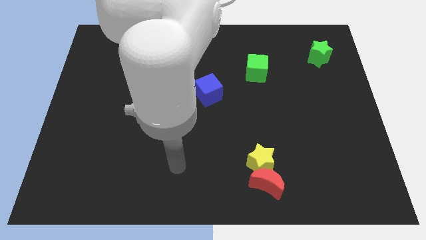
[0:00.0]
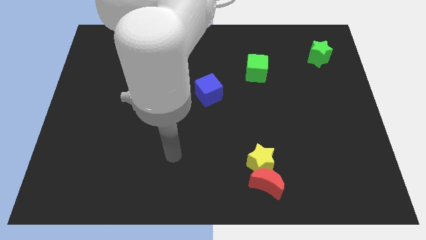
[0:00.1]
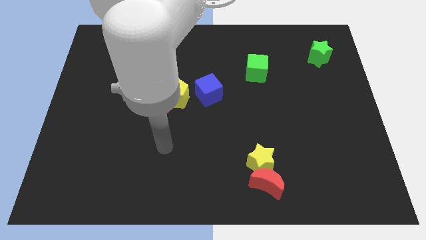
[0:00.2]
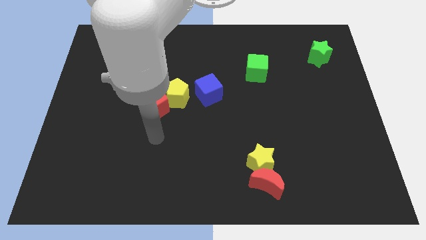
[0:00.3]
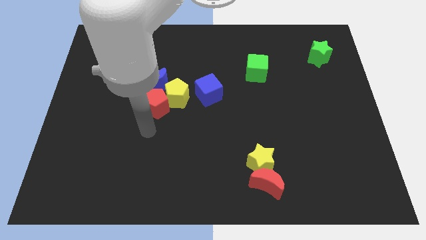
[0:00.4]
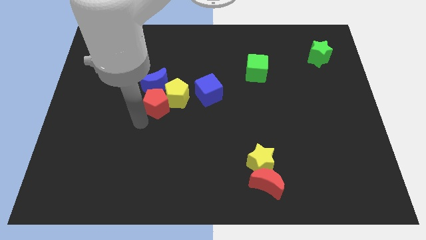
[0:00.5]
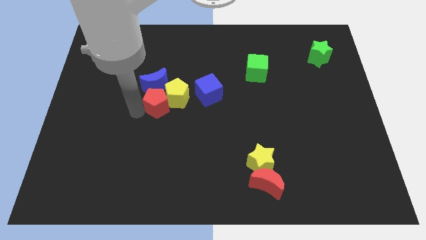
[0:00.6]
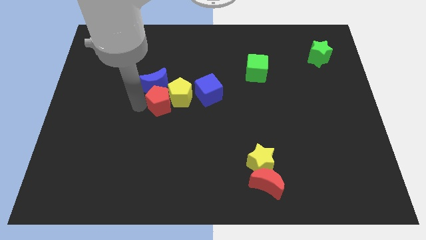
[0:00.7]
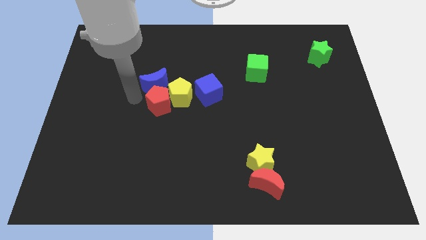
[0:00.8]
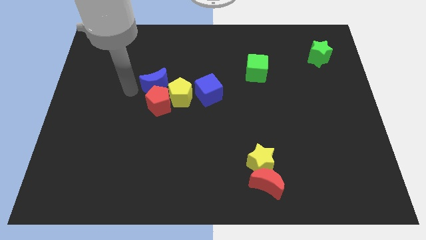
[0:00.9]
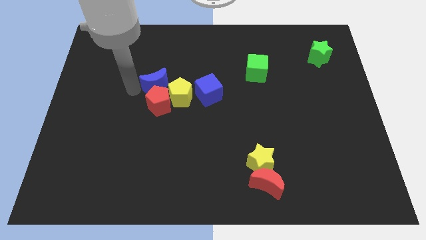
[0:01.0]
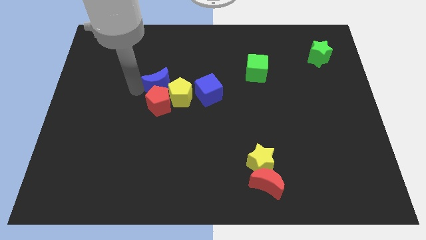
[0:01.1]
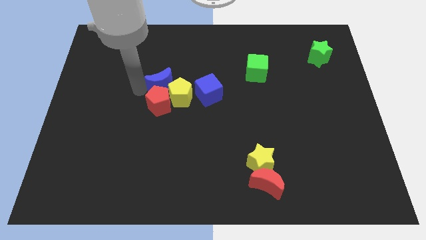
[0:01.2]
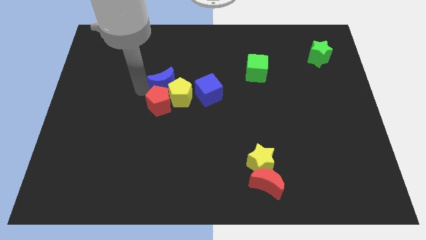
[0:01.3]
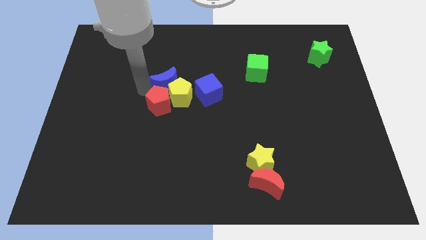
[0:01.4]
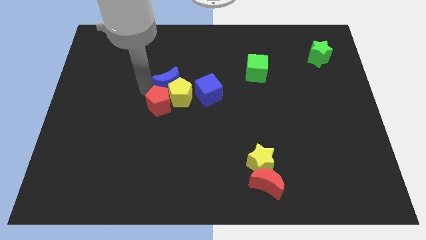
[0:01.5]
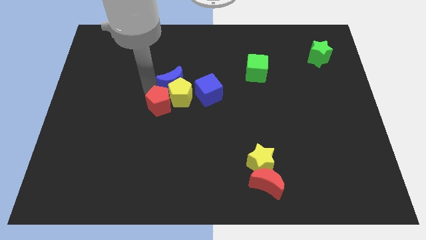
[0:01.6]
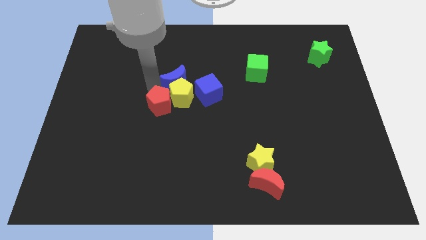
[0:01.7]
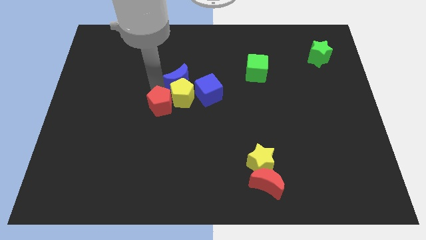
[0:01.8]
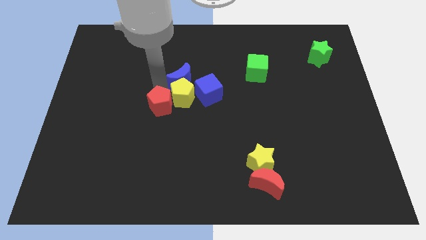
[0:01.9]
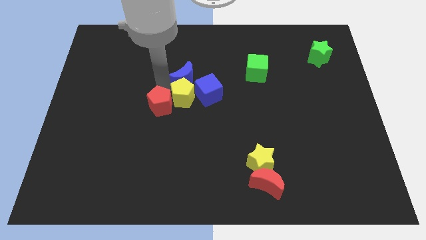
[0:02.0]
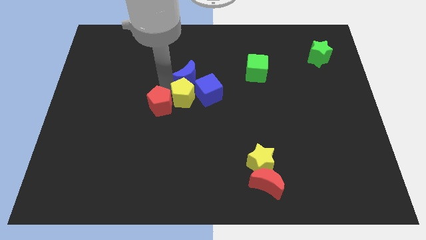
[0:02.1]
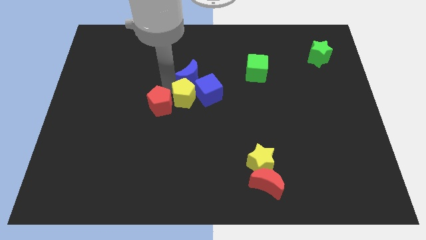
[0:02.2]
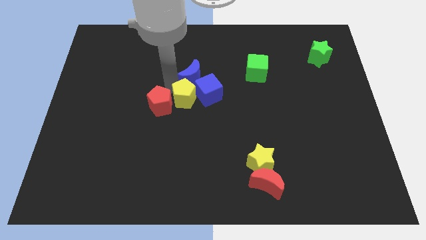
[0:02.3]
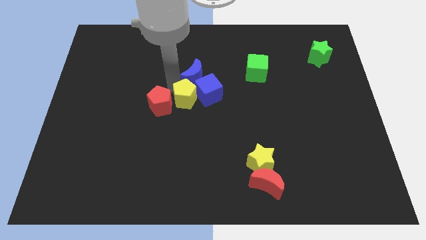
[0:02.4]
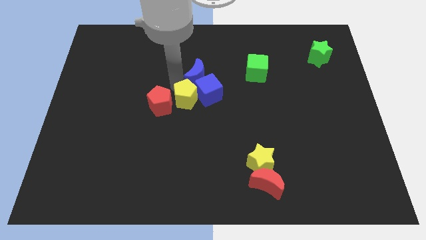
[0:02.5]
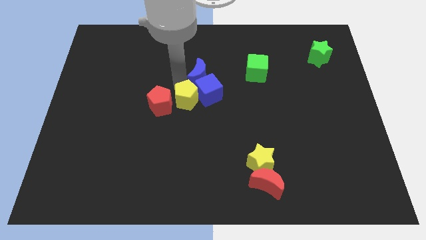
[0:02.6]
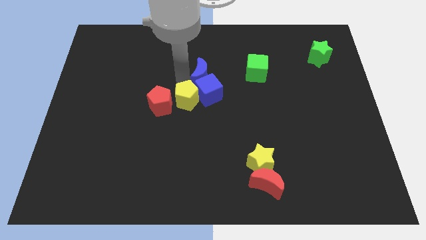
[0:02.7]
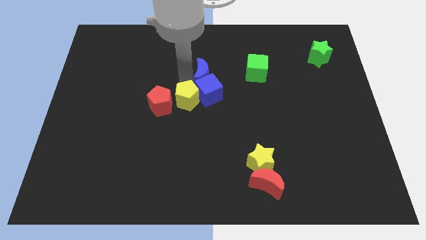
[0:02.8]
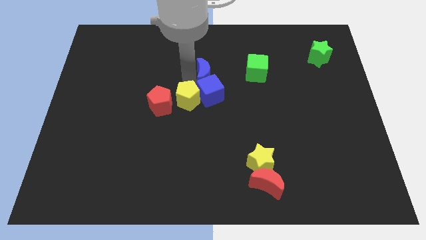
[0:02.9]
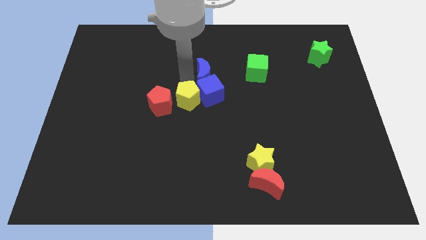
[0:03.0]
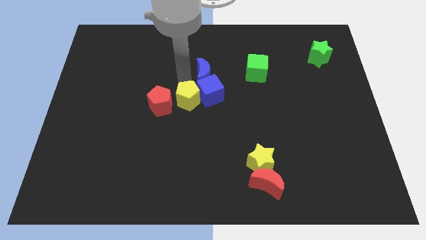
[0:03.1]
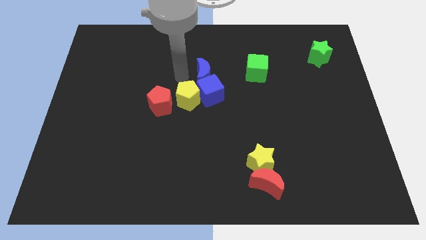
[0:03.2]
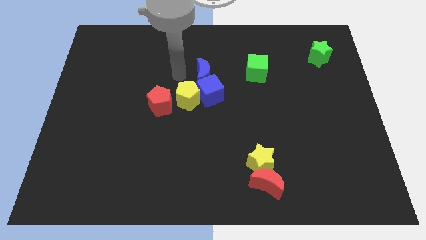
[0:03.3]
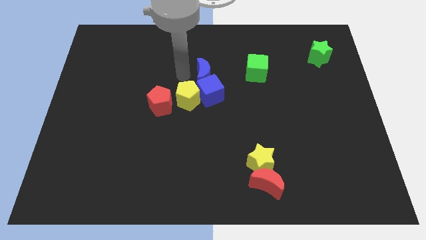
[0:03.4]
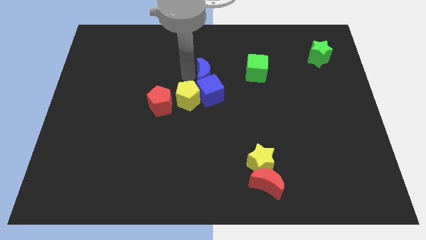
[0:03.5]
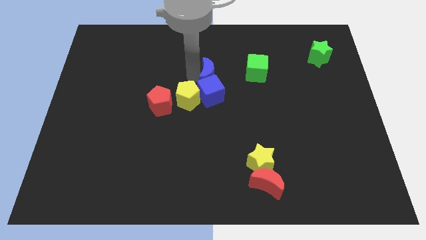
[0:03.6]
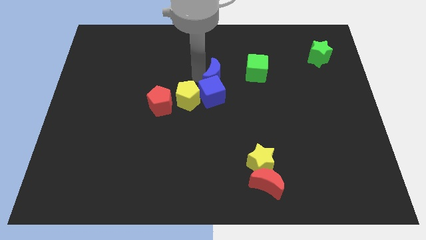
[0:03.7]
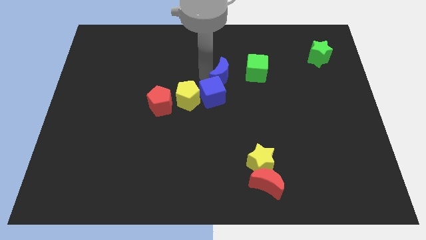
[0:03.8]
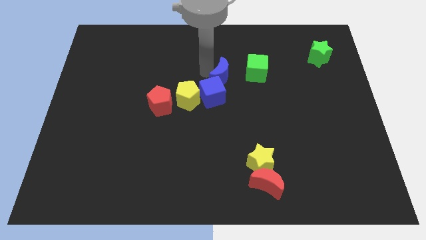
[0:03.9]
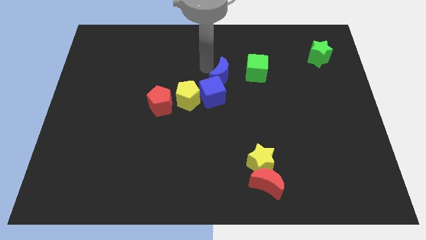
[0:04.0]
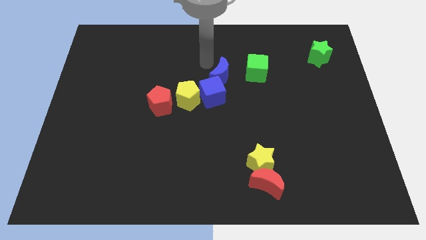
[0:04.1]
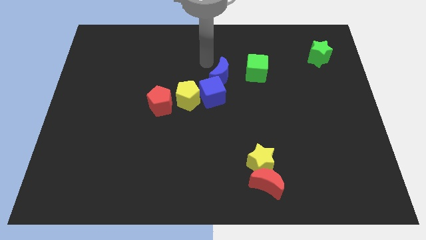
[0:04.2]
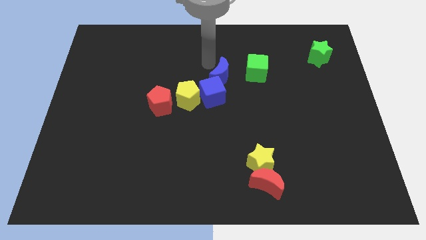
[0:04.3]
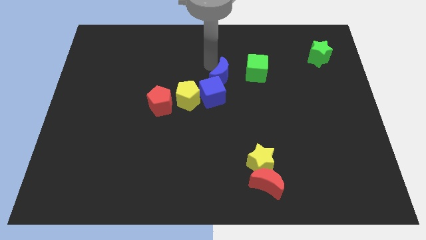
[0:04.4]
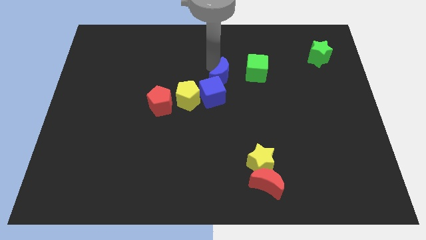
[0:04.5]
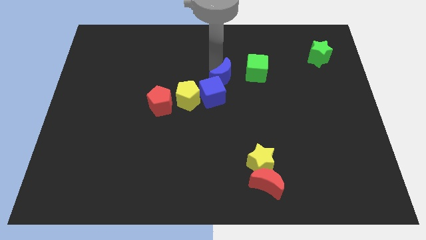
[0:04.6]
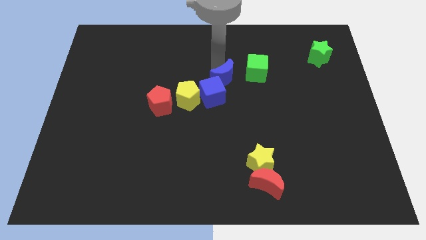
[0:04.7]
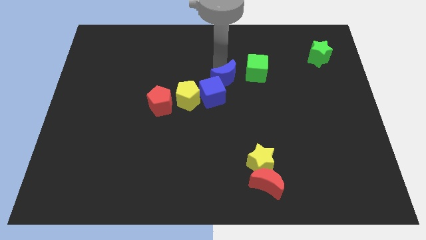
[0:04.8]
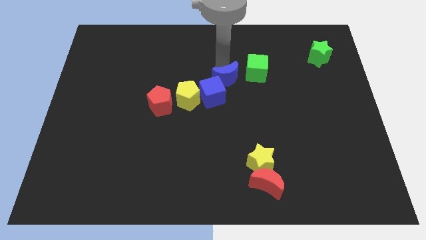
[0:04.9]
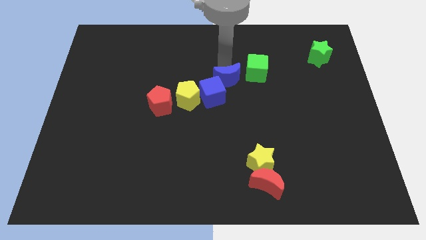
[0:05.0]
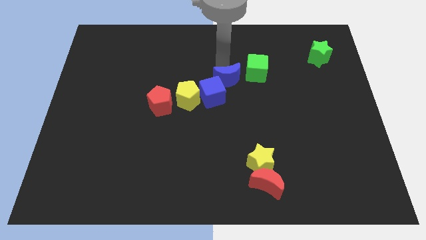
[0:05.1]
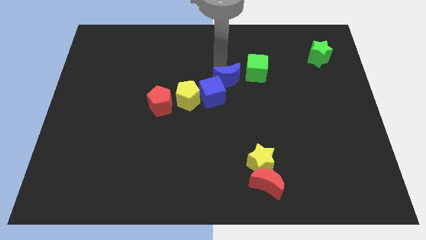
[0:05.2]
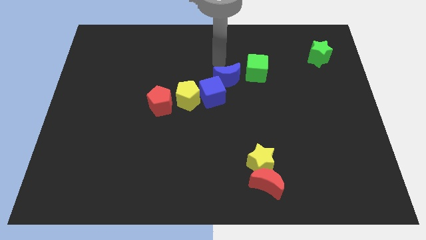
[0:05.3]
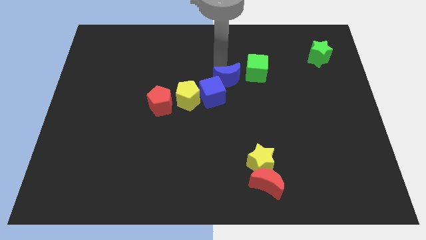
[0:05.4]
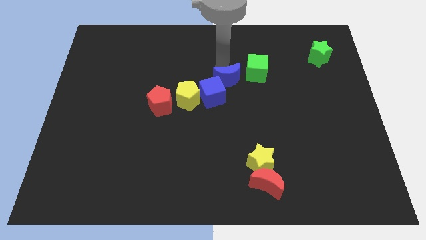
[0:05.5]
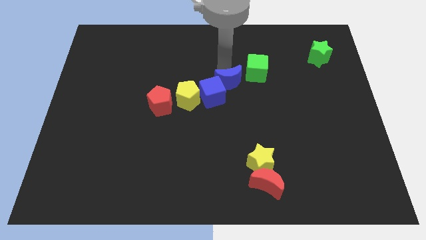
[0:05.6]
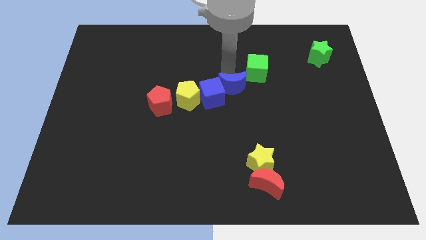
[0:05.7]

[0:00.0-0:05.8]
move the blue moon to the right side of the yellow pentagon

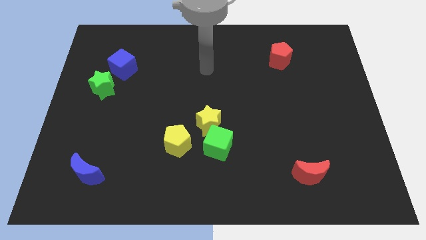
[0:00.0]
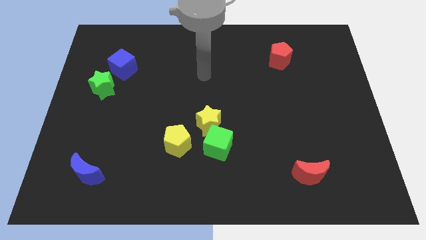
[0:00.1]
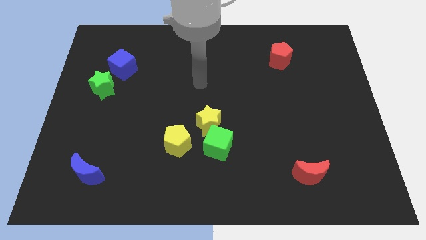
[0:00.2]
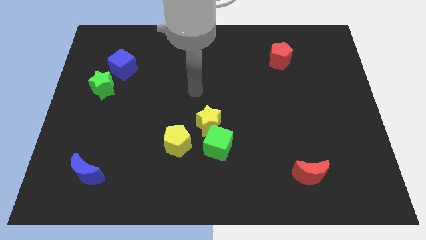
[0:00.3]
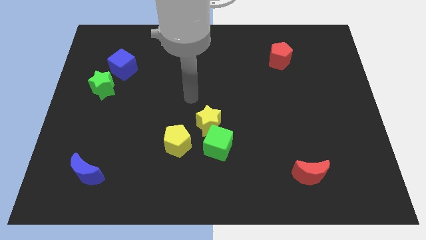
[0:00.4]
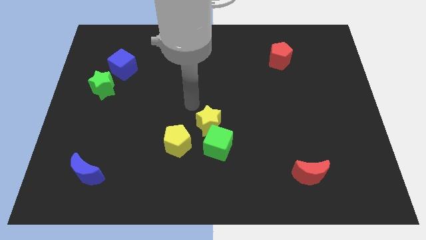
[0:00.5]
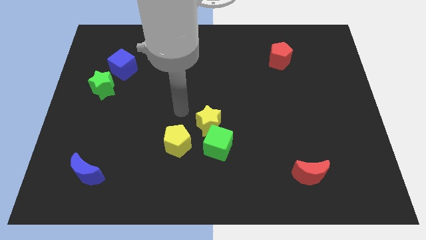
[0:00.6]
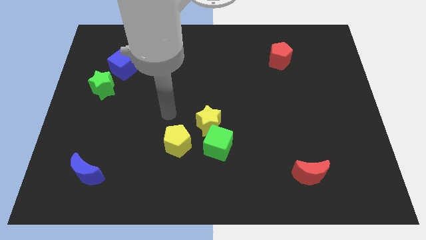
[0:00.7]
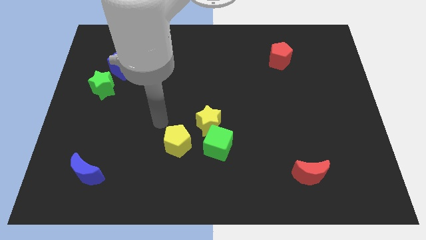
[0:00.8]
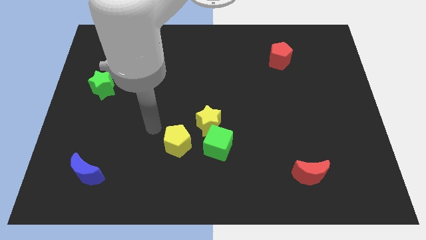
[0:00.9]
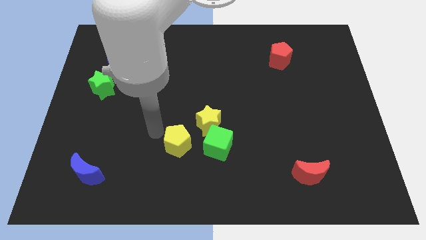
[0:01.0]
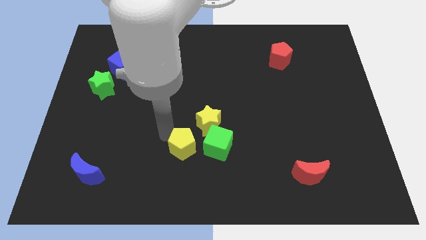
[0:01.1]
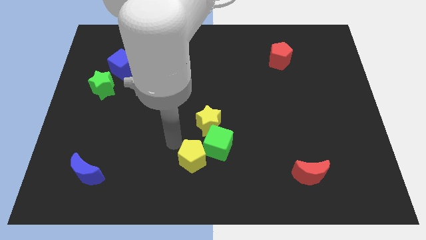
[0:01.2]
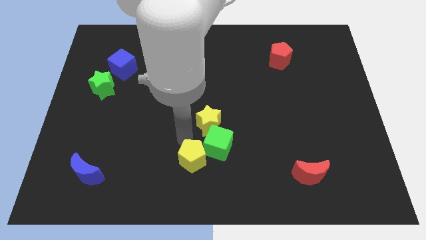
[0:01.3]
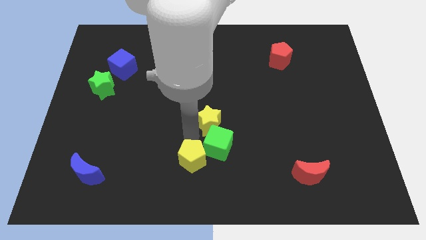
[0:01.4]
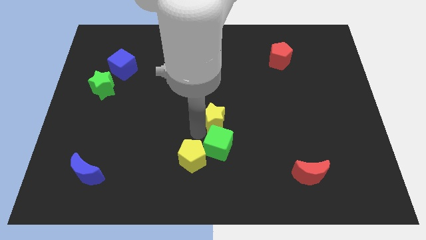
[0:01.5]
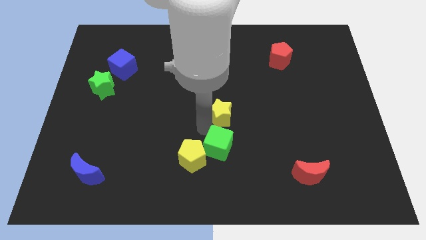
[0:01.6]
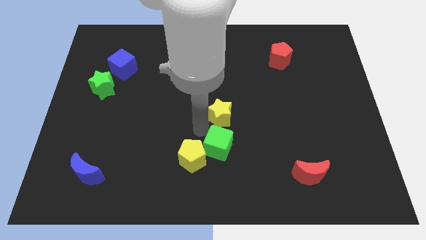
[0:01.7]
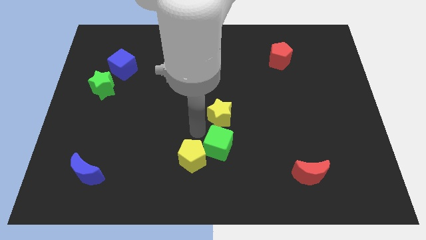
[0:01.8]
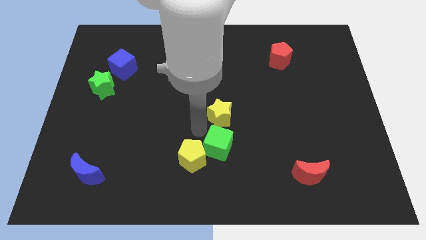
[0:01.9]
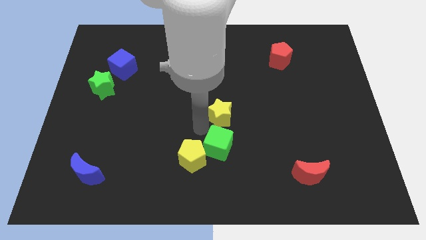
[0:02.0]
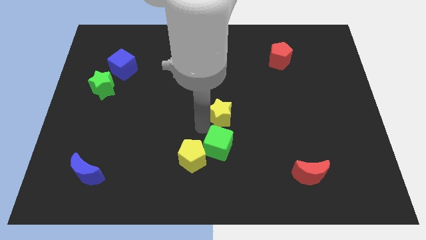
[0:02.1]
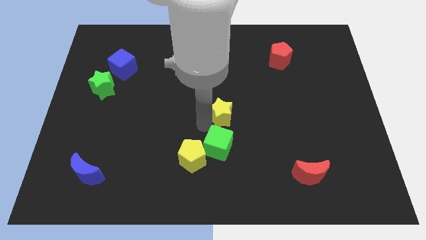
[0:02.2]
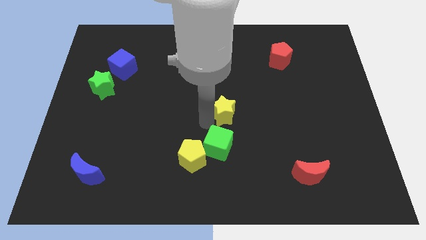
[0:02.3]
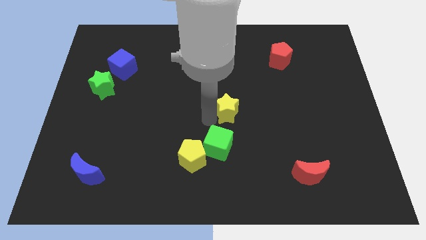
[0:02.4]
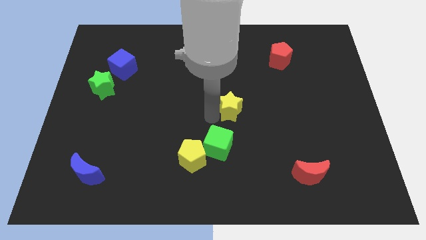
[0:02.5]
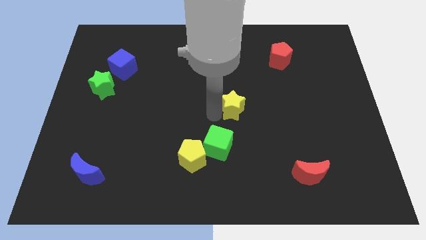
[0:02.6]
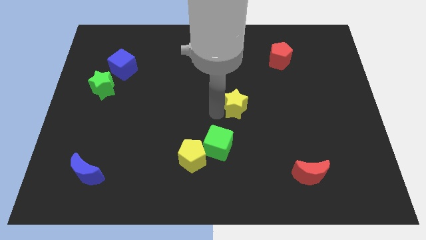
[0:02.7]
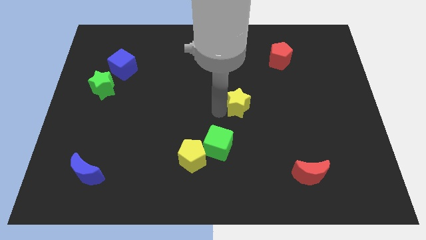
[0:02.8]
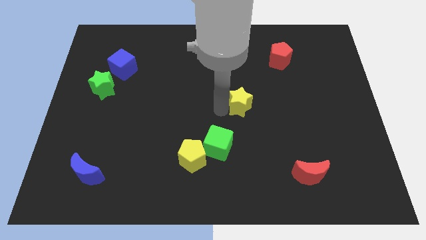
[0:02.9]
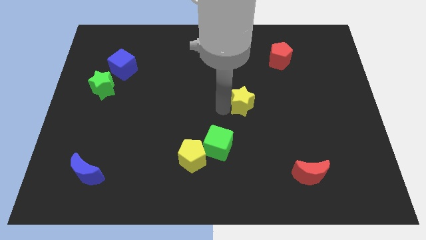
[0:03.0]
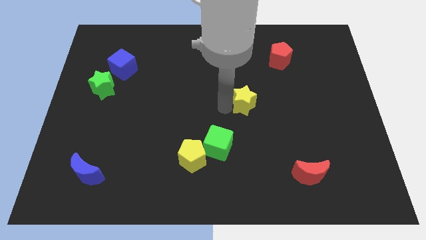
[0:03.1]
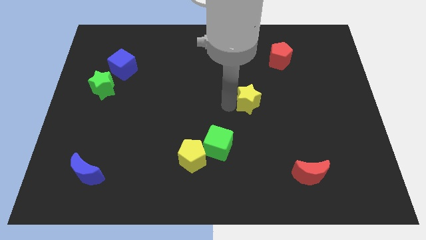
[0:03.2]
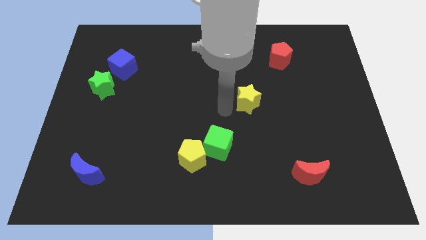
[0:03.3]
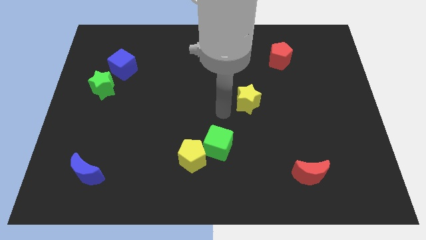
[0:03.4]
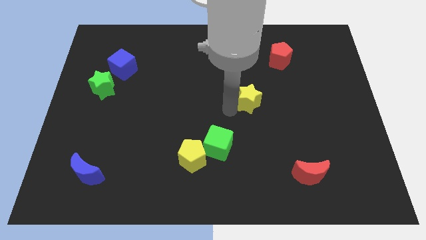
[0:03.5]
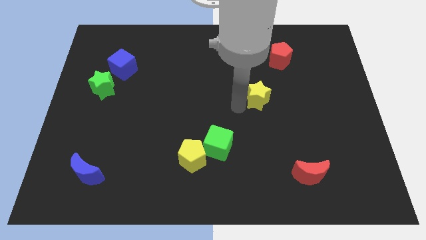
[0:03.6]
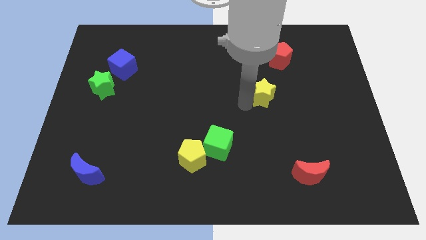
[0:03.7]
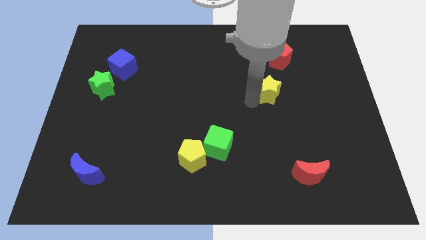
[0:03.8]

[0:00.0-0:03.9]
push the yellow star below the red pentagon
